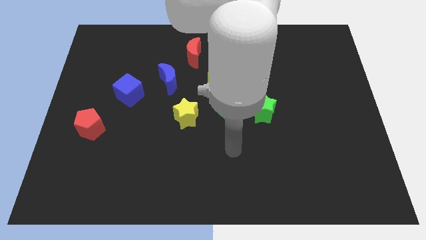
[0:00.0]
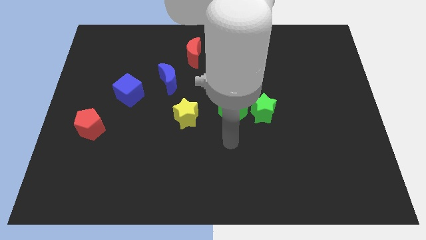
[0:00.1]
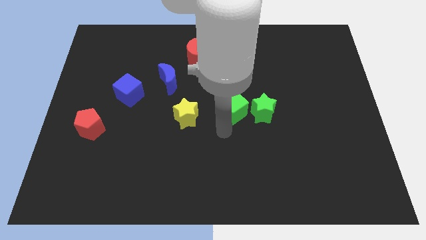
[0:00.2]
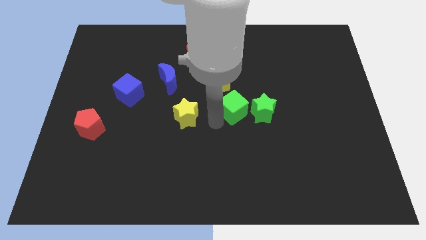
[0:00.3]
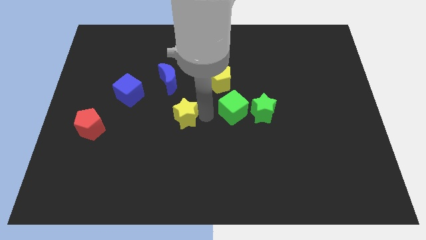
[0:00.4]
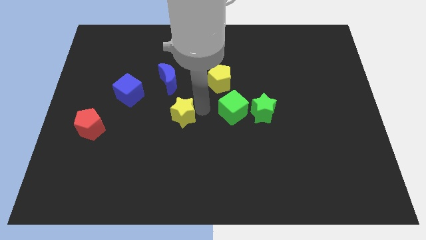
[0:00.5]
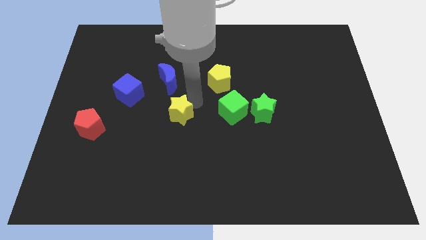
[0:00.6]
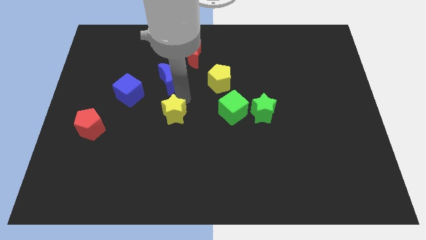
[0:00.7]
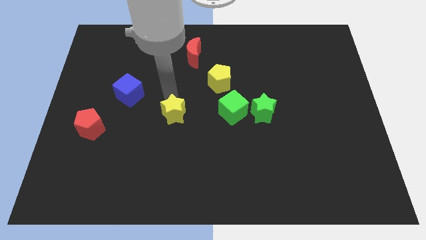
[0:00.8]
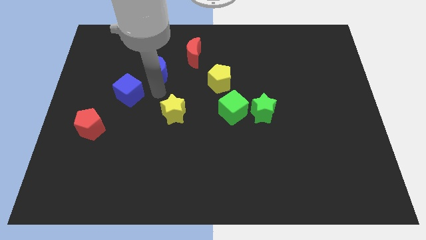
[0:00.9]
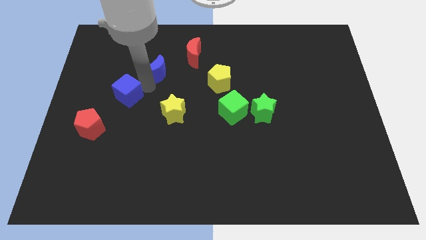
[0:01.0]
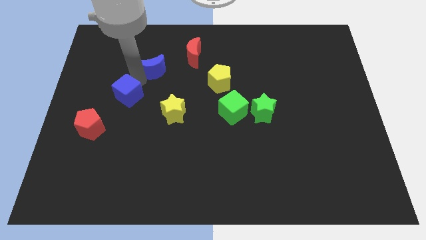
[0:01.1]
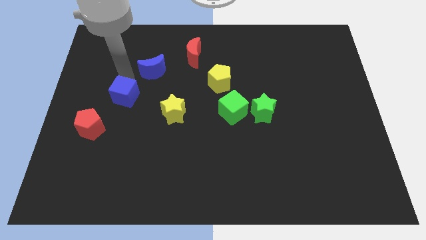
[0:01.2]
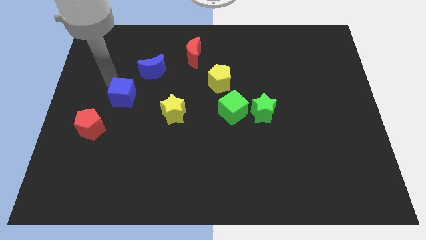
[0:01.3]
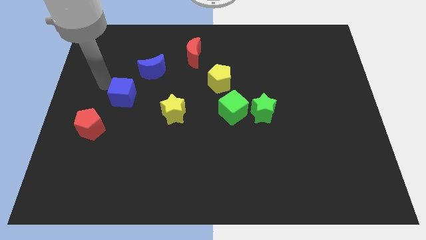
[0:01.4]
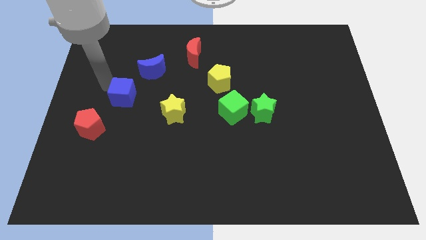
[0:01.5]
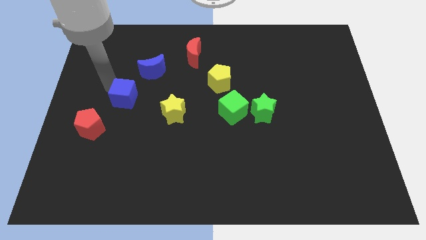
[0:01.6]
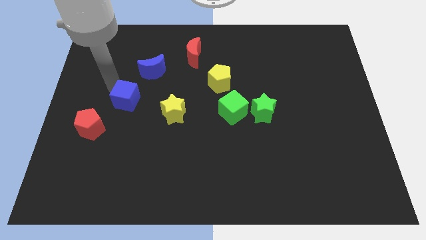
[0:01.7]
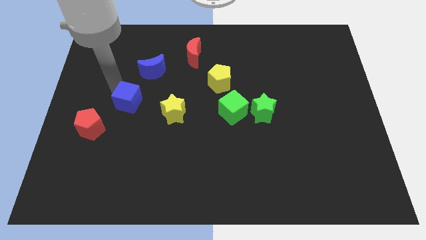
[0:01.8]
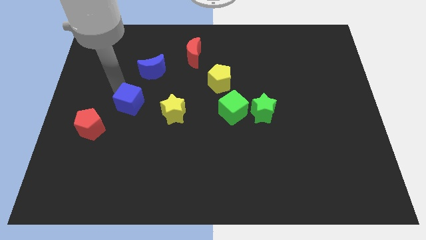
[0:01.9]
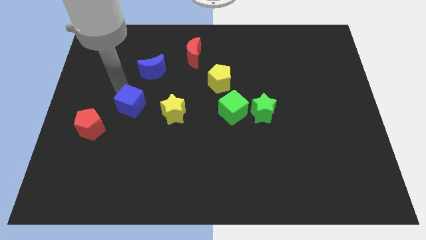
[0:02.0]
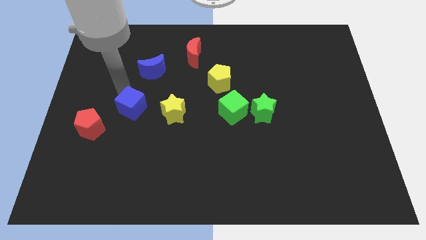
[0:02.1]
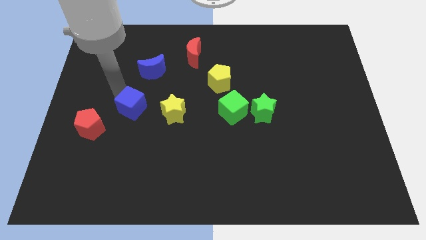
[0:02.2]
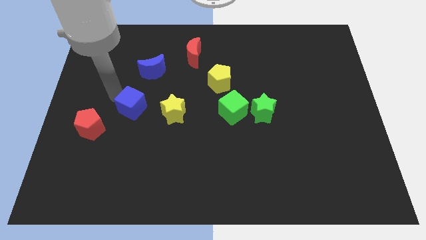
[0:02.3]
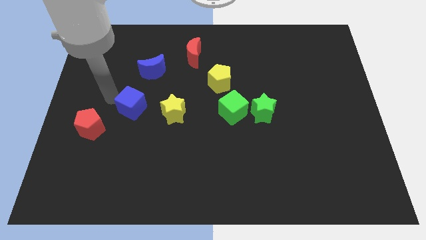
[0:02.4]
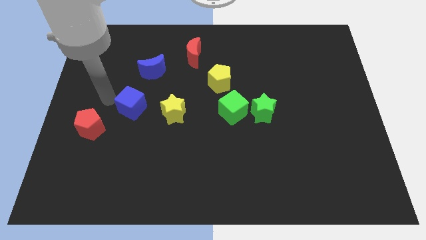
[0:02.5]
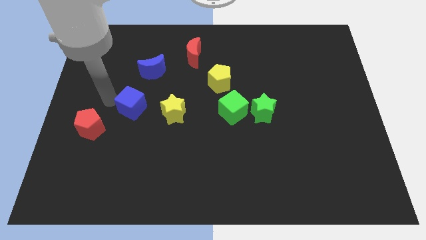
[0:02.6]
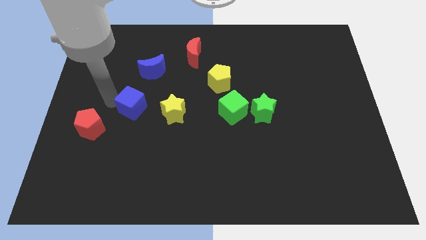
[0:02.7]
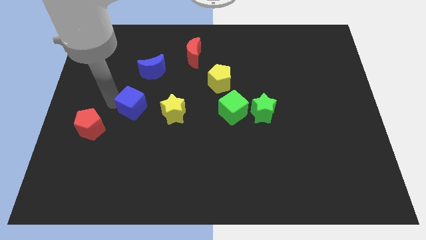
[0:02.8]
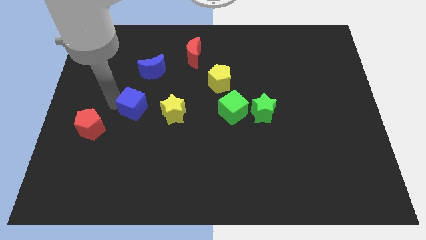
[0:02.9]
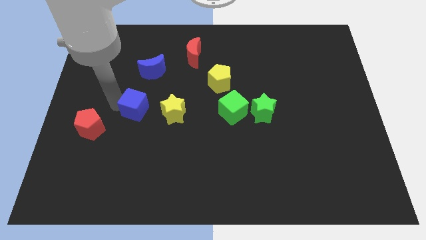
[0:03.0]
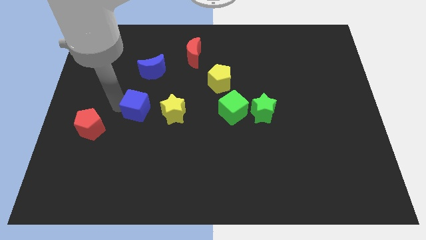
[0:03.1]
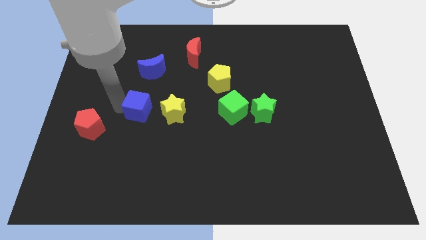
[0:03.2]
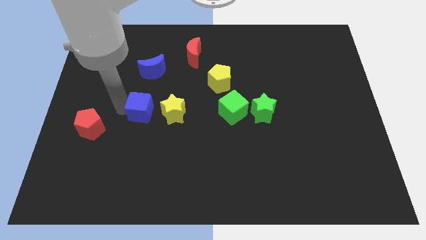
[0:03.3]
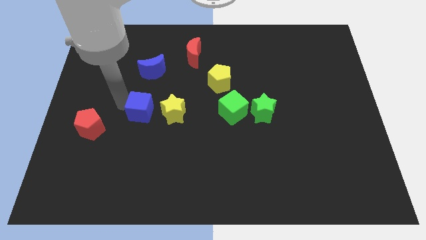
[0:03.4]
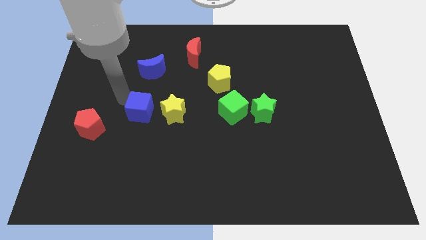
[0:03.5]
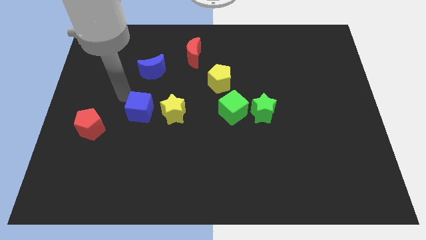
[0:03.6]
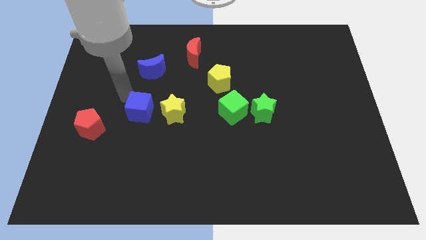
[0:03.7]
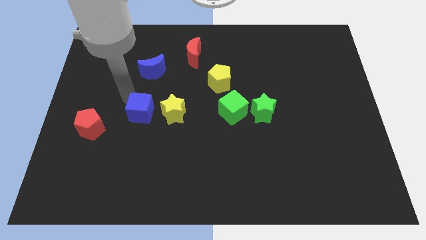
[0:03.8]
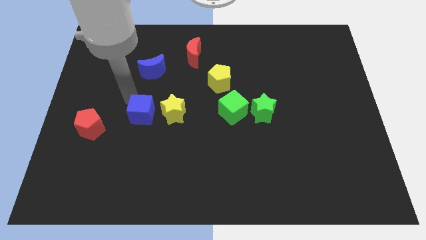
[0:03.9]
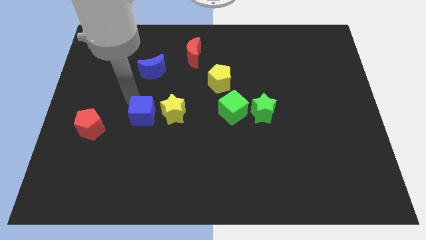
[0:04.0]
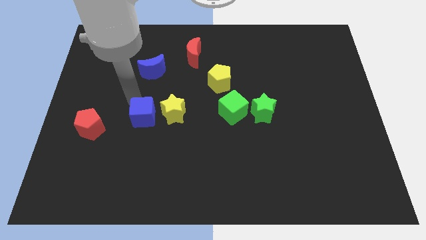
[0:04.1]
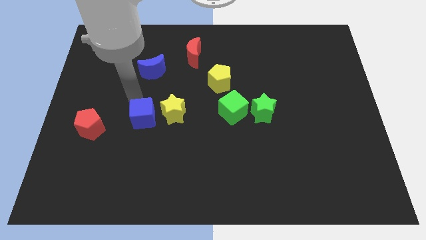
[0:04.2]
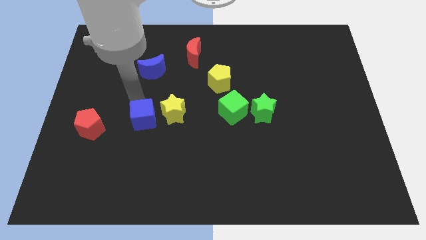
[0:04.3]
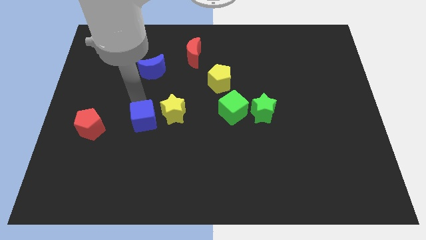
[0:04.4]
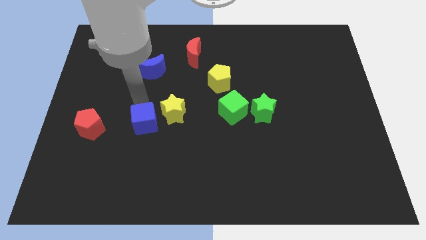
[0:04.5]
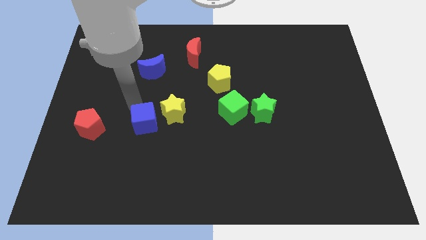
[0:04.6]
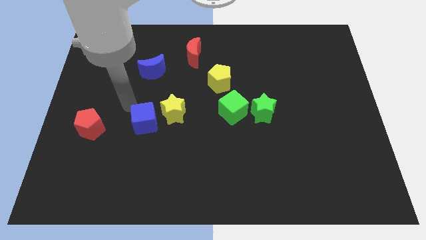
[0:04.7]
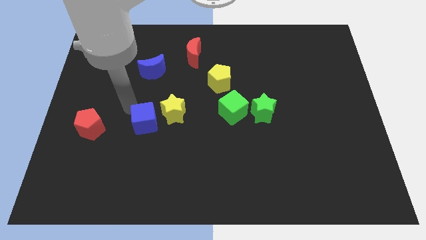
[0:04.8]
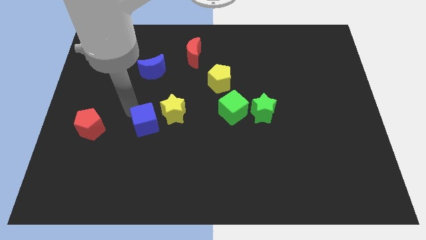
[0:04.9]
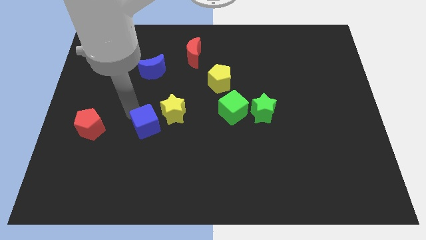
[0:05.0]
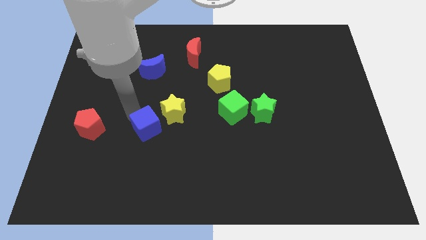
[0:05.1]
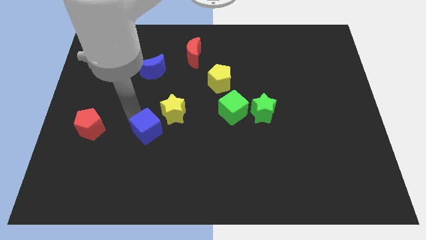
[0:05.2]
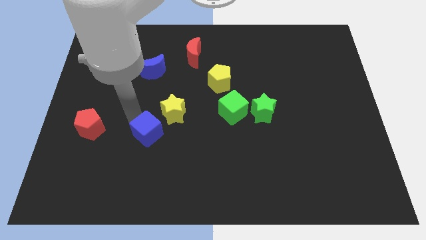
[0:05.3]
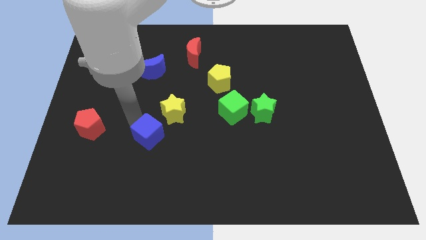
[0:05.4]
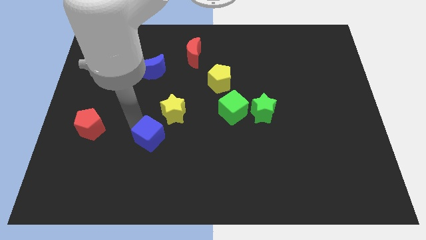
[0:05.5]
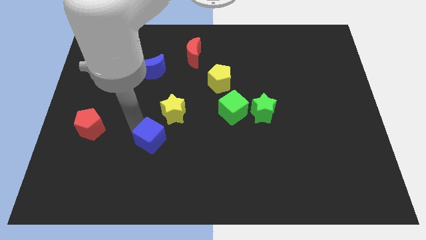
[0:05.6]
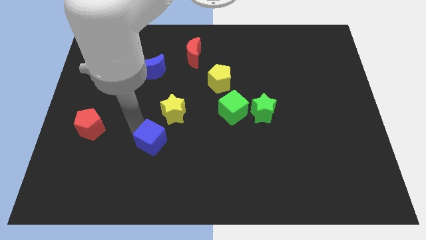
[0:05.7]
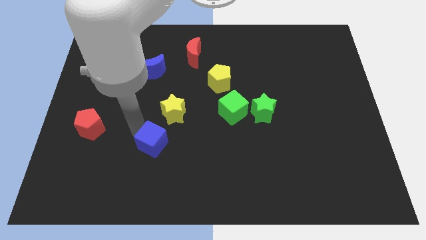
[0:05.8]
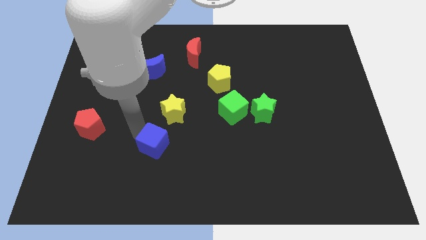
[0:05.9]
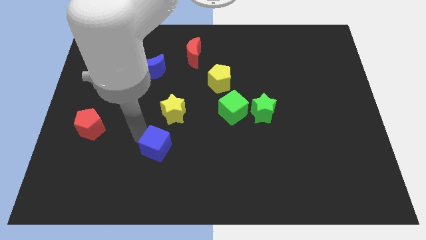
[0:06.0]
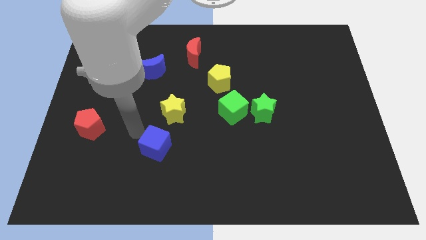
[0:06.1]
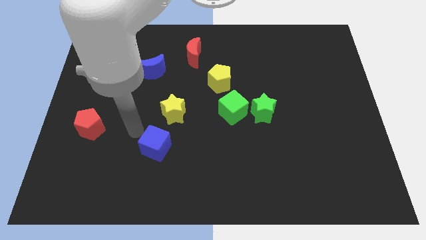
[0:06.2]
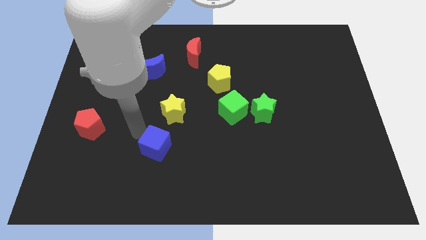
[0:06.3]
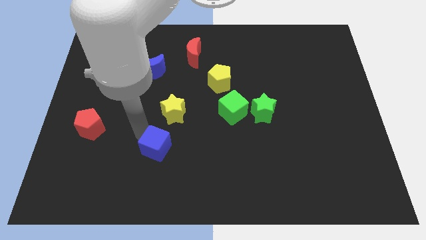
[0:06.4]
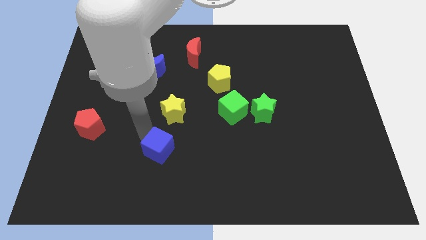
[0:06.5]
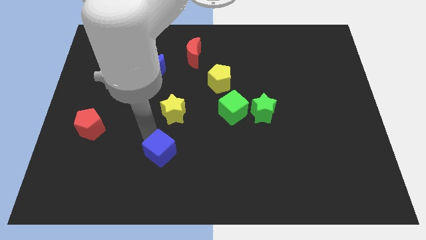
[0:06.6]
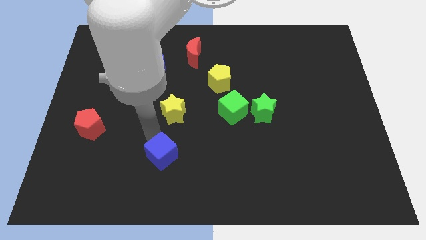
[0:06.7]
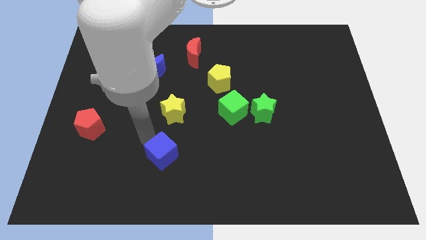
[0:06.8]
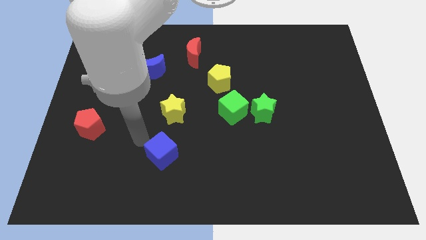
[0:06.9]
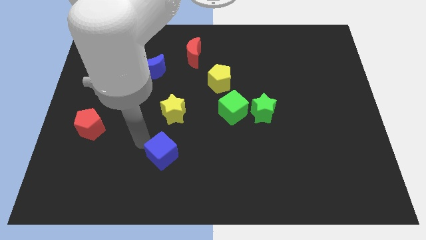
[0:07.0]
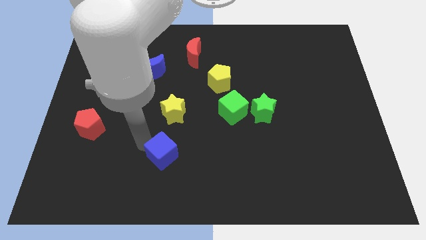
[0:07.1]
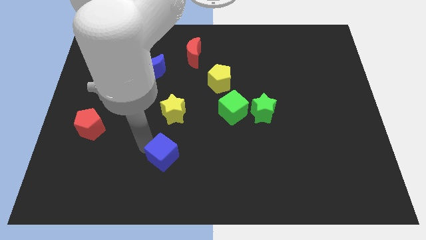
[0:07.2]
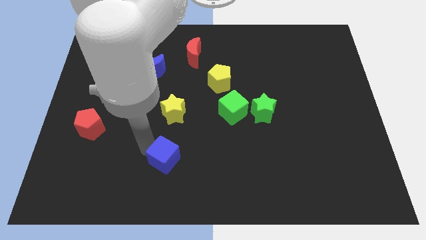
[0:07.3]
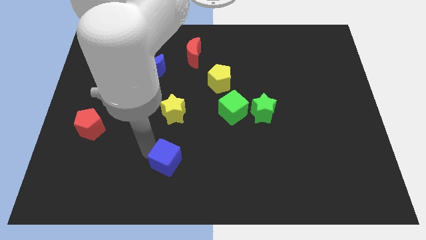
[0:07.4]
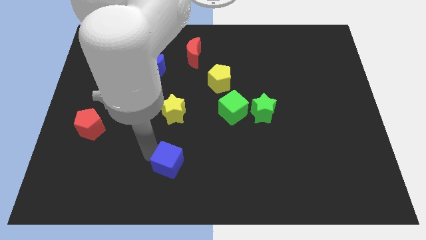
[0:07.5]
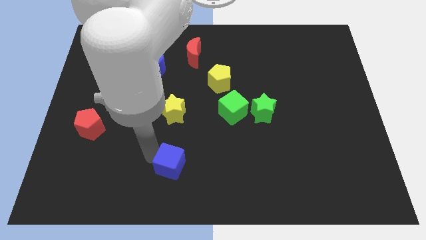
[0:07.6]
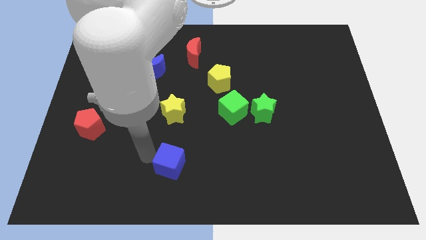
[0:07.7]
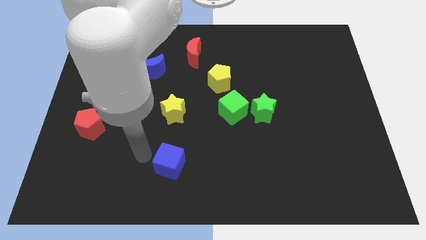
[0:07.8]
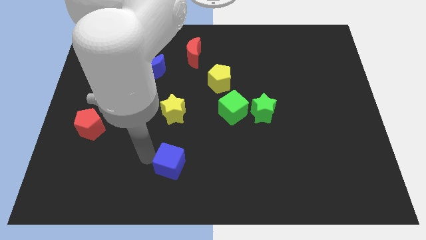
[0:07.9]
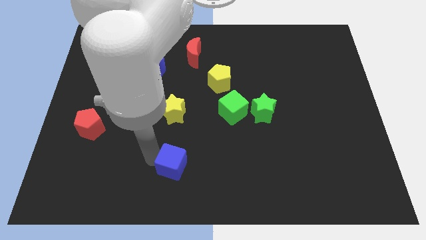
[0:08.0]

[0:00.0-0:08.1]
push the blue cube to the bottom side
